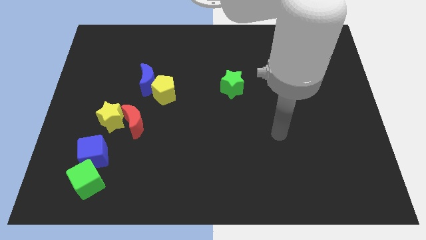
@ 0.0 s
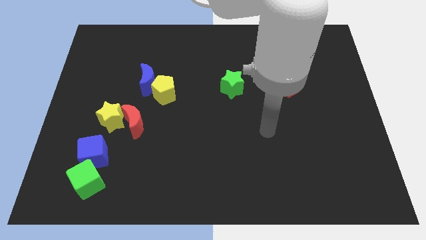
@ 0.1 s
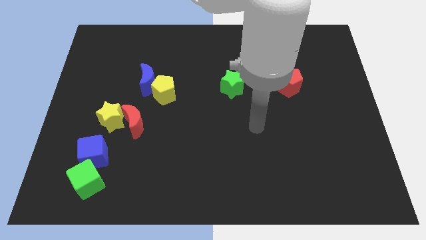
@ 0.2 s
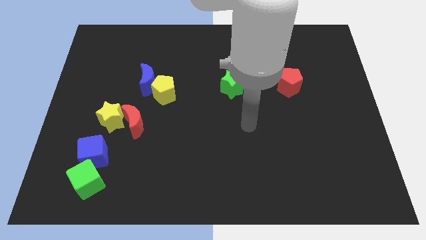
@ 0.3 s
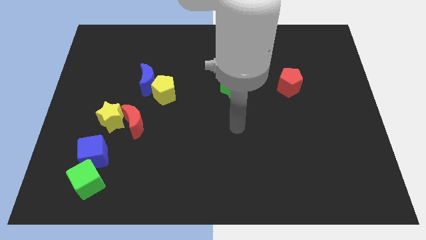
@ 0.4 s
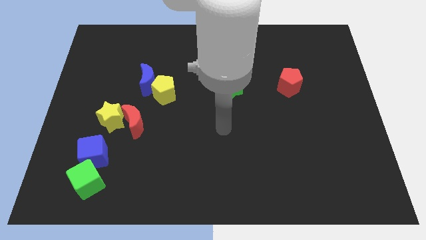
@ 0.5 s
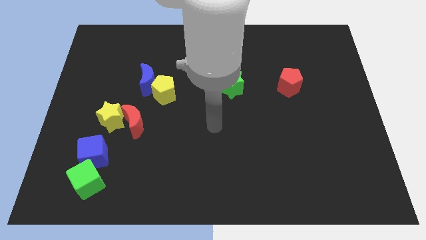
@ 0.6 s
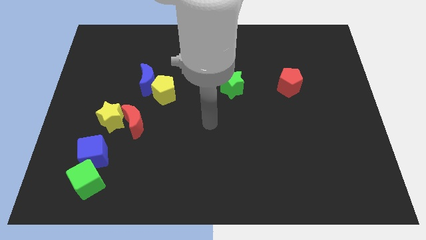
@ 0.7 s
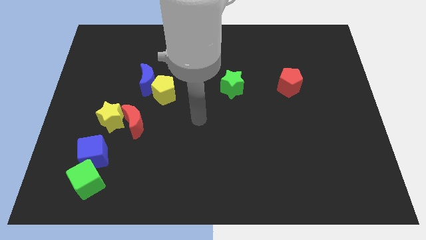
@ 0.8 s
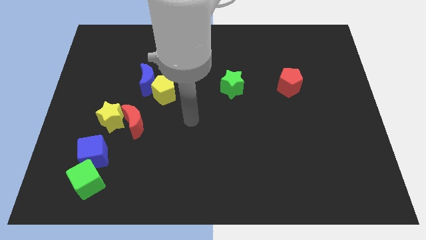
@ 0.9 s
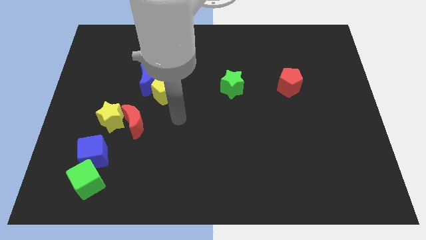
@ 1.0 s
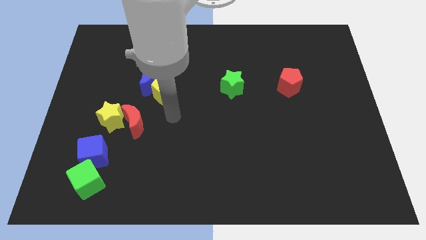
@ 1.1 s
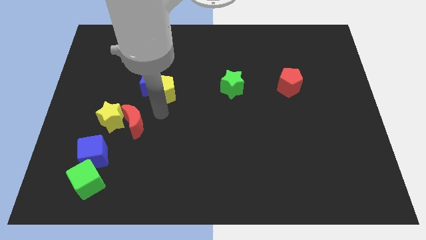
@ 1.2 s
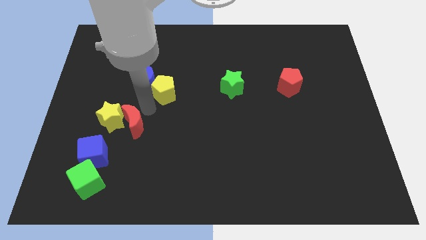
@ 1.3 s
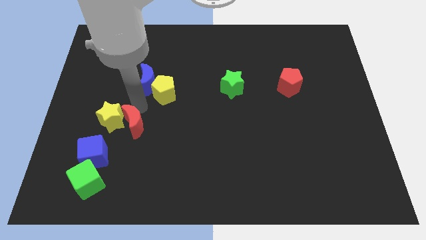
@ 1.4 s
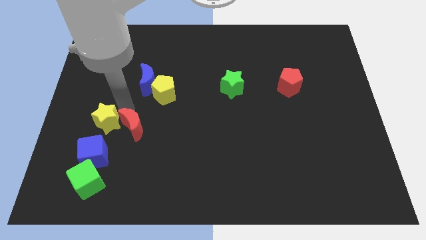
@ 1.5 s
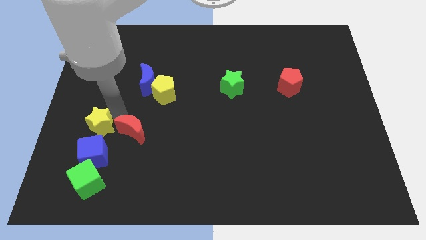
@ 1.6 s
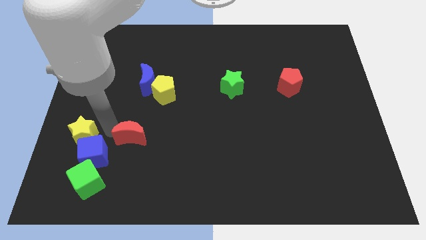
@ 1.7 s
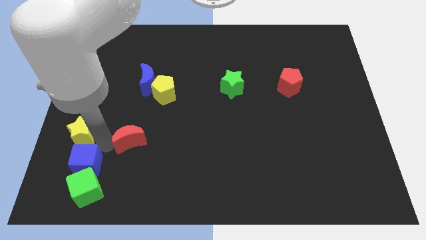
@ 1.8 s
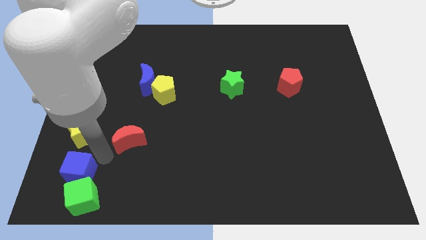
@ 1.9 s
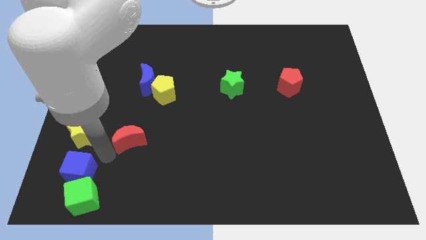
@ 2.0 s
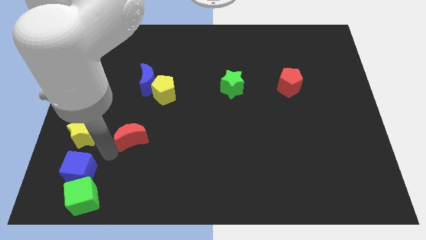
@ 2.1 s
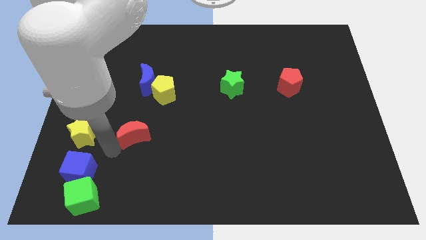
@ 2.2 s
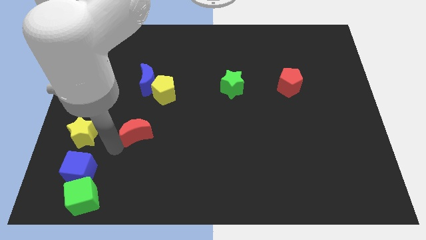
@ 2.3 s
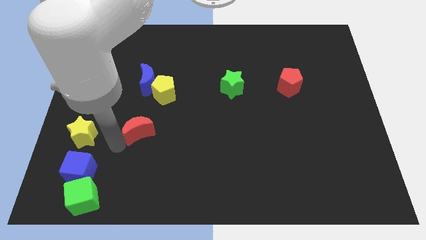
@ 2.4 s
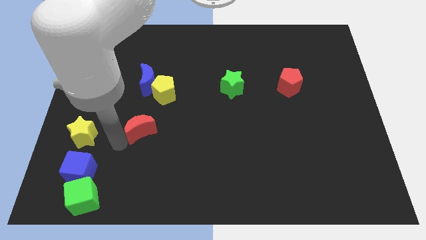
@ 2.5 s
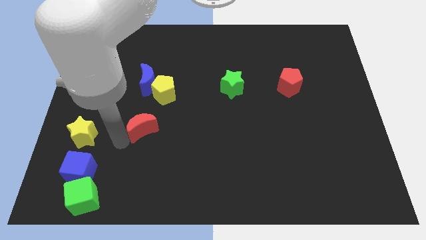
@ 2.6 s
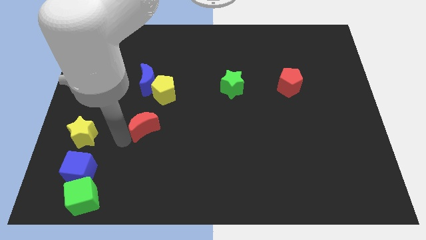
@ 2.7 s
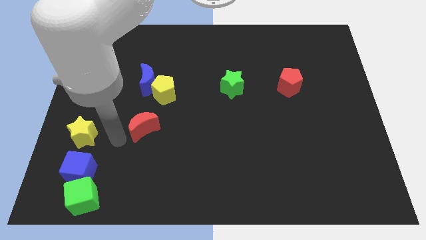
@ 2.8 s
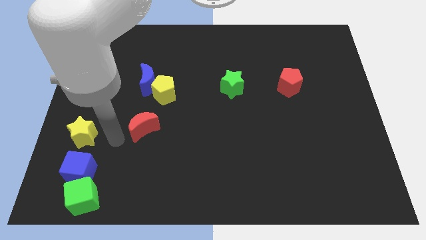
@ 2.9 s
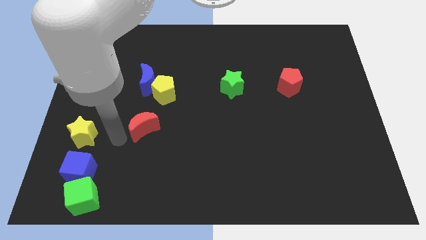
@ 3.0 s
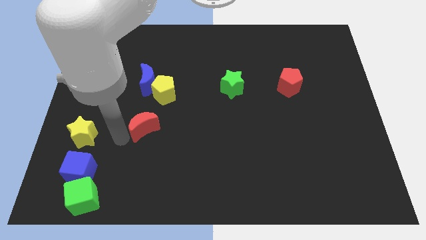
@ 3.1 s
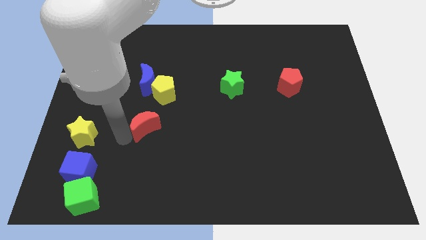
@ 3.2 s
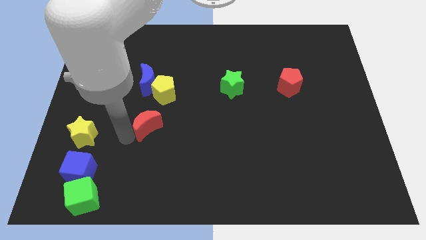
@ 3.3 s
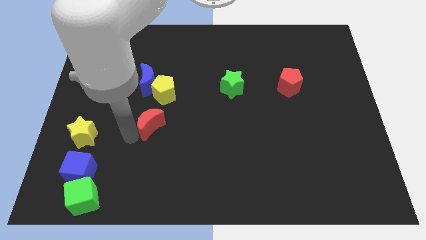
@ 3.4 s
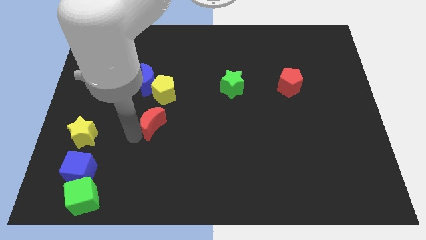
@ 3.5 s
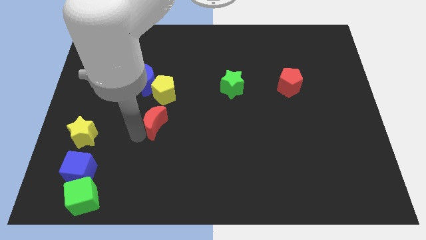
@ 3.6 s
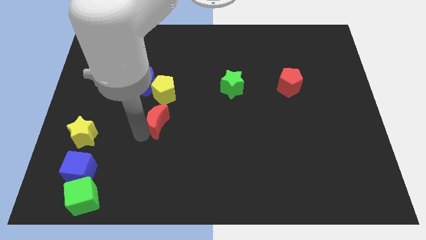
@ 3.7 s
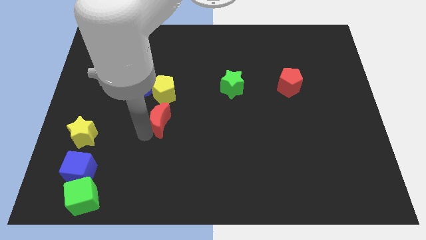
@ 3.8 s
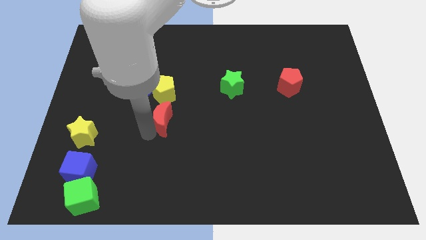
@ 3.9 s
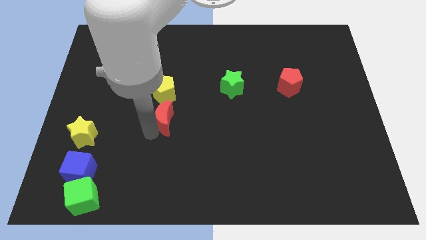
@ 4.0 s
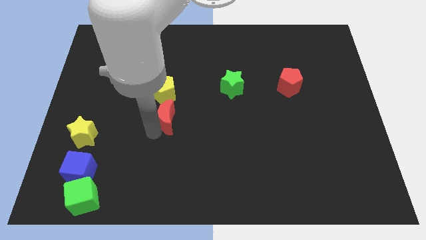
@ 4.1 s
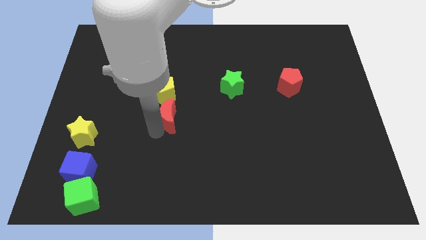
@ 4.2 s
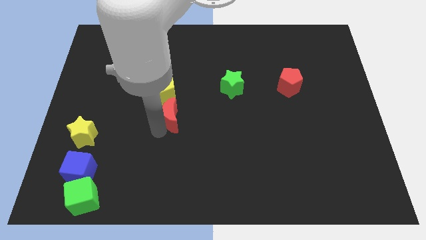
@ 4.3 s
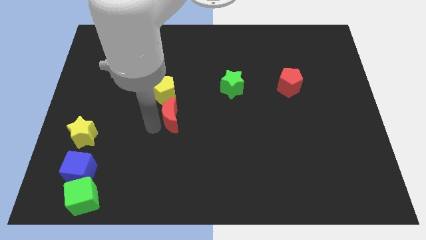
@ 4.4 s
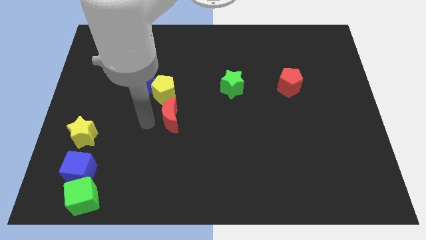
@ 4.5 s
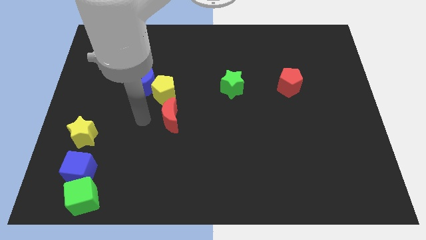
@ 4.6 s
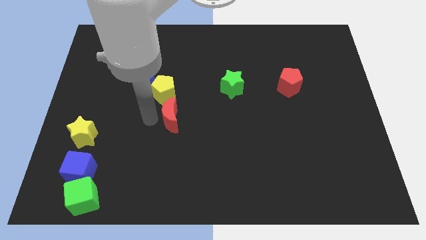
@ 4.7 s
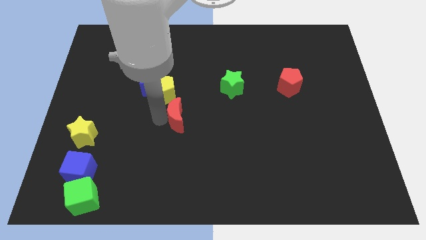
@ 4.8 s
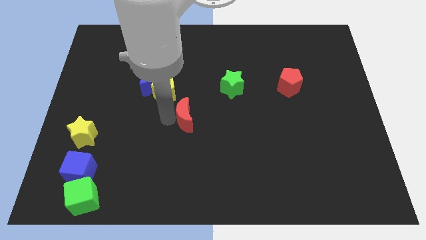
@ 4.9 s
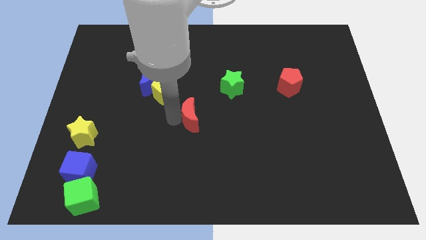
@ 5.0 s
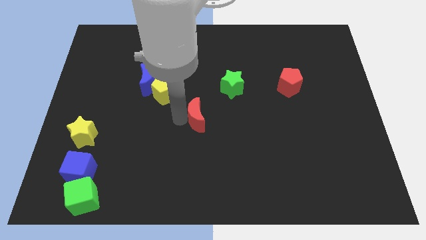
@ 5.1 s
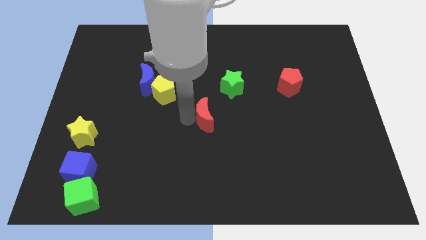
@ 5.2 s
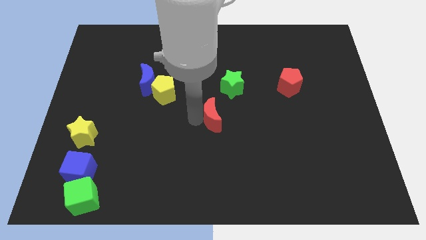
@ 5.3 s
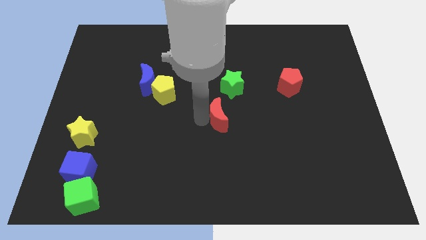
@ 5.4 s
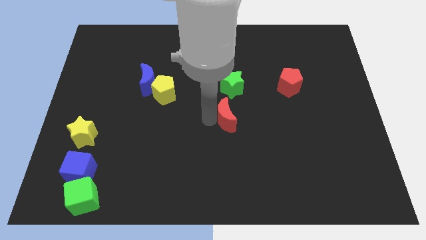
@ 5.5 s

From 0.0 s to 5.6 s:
move the red moon to the right

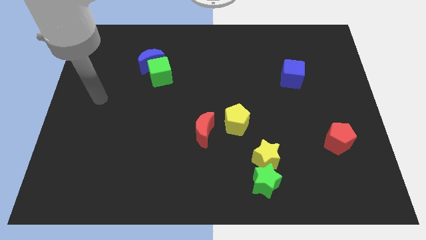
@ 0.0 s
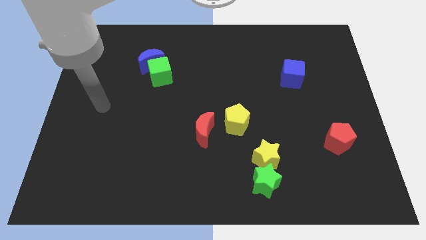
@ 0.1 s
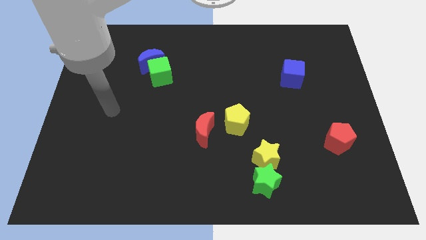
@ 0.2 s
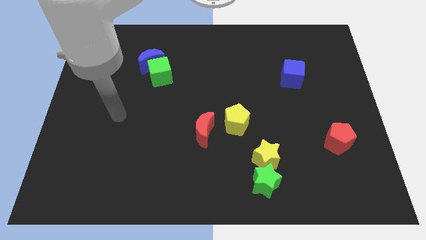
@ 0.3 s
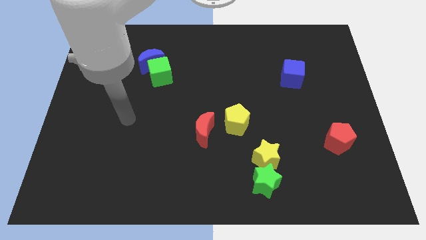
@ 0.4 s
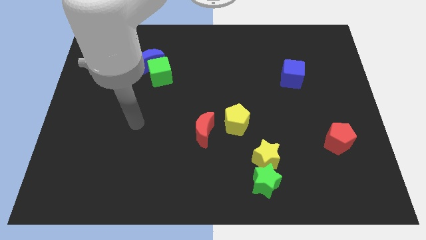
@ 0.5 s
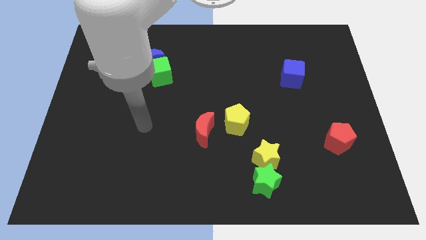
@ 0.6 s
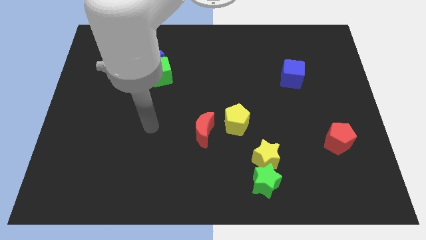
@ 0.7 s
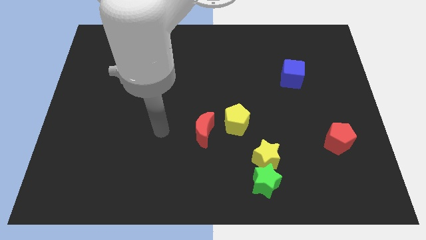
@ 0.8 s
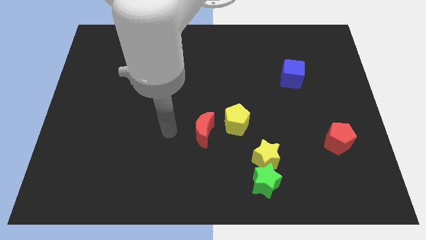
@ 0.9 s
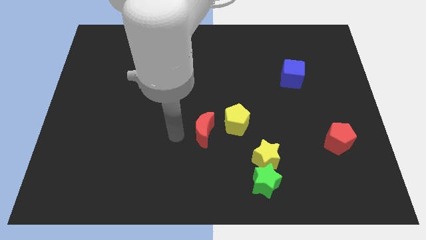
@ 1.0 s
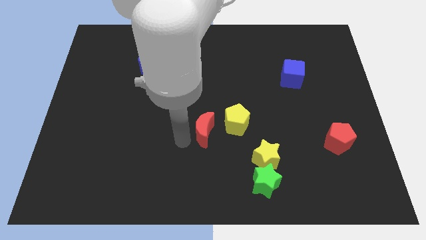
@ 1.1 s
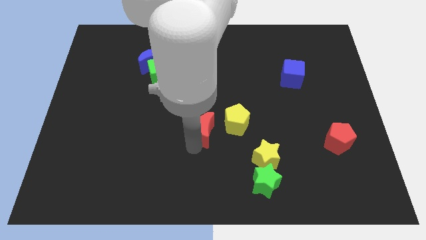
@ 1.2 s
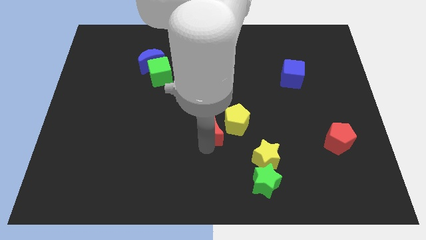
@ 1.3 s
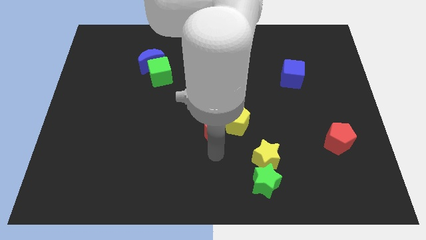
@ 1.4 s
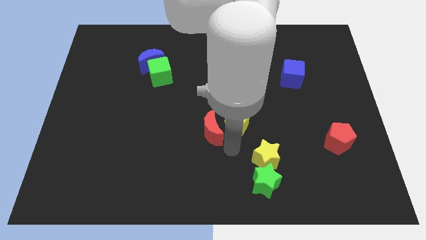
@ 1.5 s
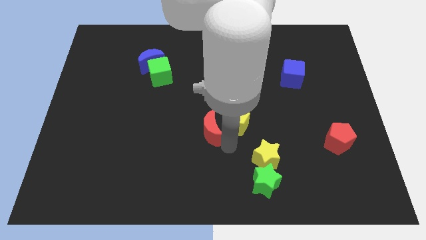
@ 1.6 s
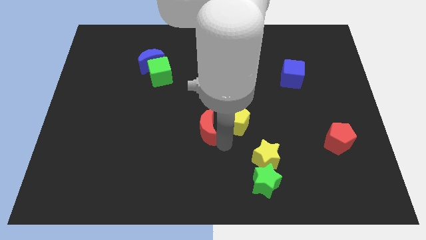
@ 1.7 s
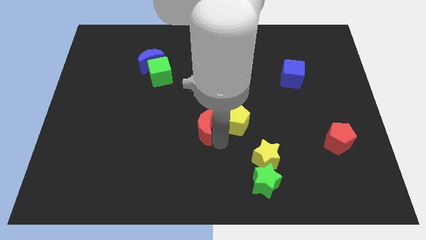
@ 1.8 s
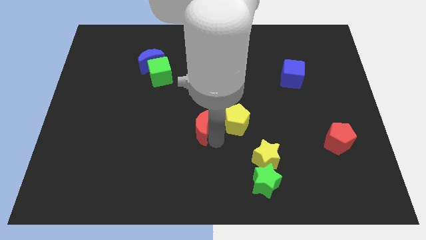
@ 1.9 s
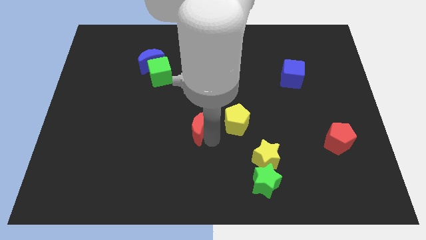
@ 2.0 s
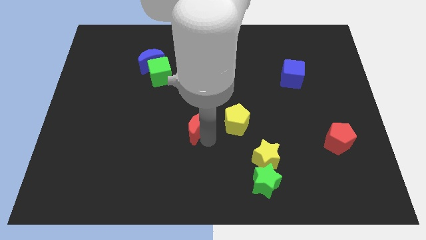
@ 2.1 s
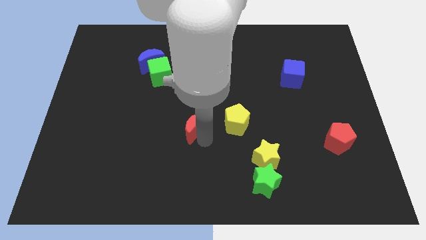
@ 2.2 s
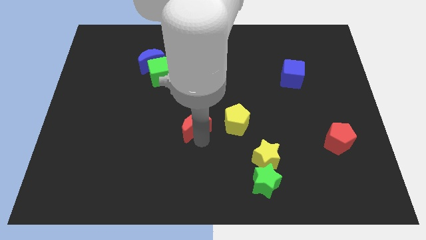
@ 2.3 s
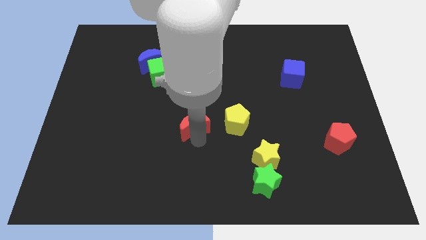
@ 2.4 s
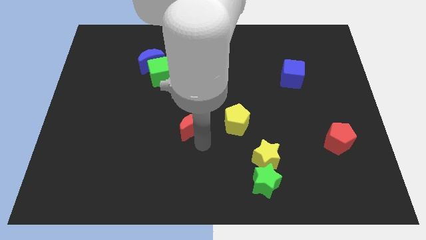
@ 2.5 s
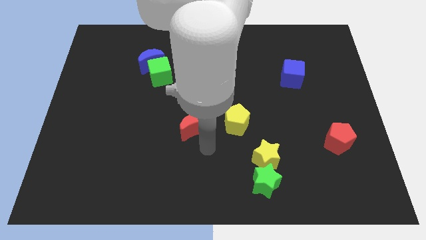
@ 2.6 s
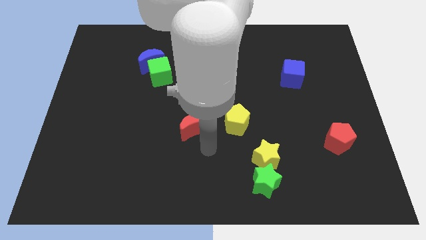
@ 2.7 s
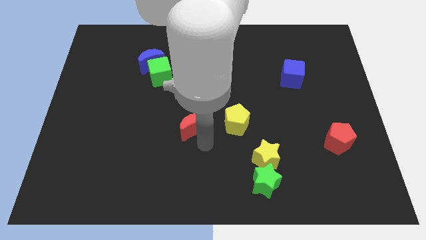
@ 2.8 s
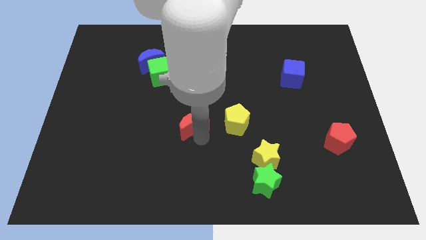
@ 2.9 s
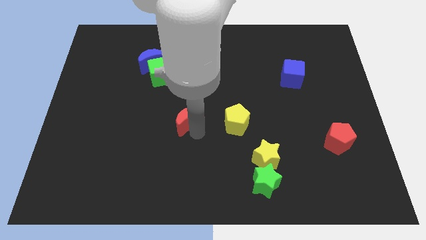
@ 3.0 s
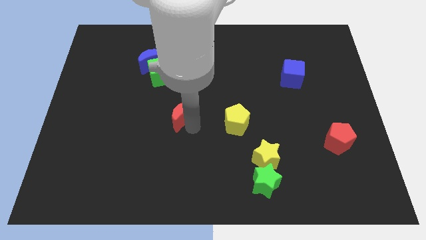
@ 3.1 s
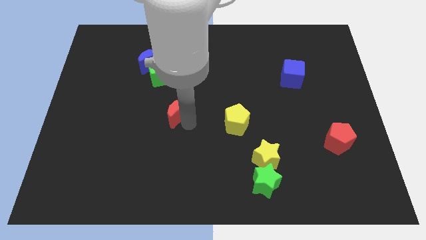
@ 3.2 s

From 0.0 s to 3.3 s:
slide the red moon slightly upwards and to the left
